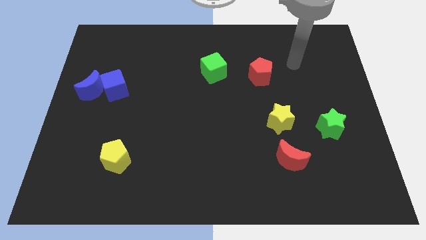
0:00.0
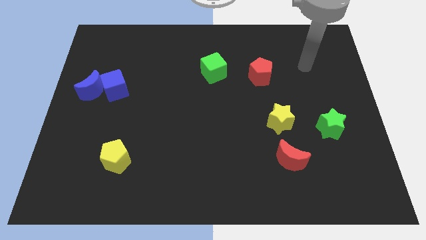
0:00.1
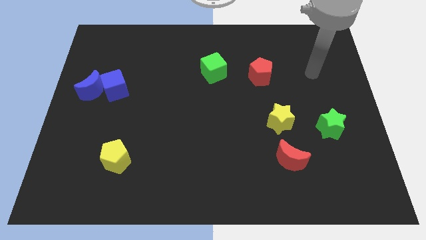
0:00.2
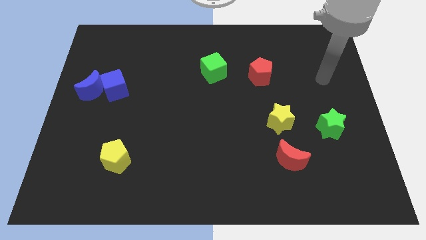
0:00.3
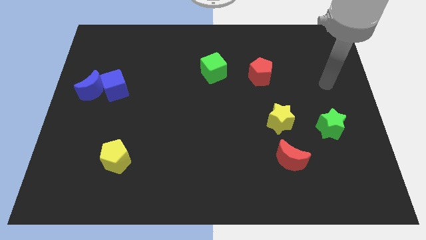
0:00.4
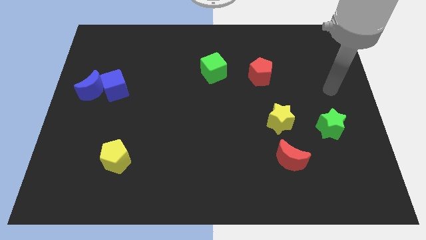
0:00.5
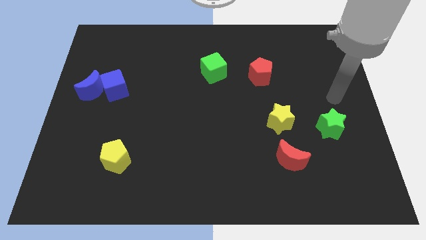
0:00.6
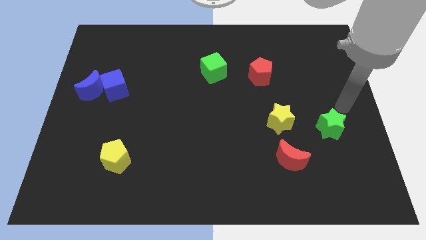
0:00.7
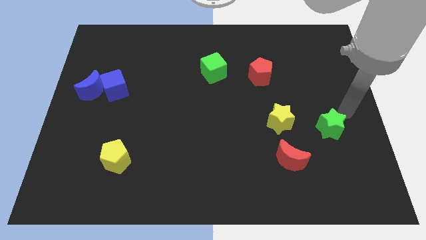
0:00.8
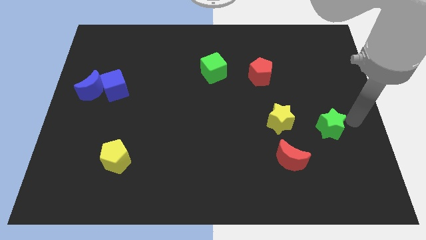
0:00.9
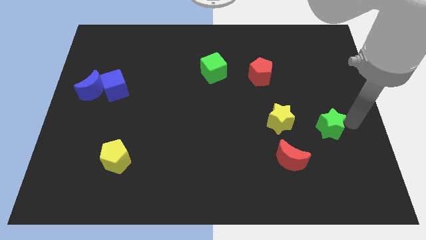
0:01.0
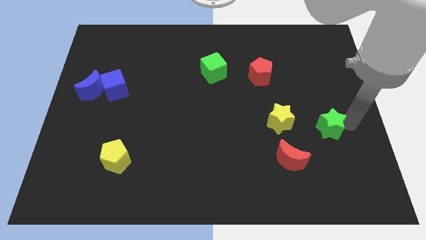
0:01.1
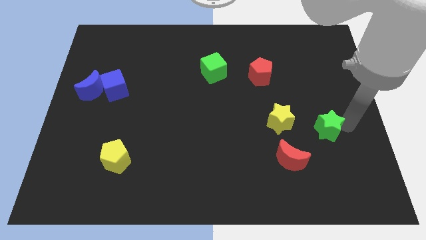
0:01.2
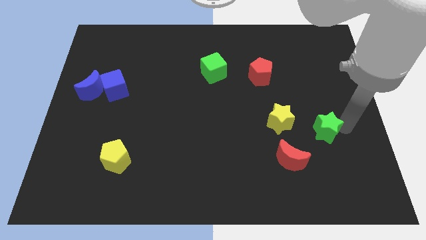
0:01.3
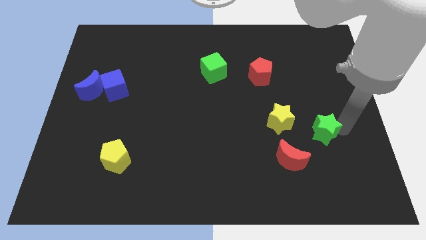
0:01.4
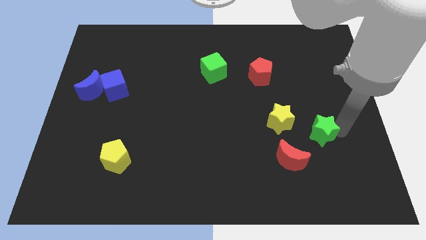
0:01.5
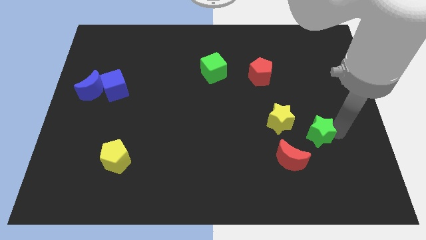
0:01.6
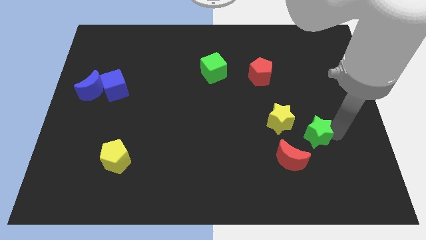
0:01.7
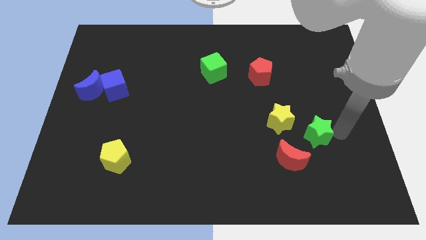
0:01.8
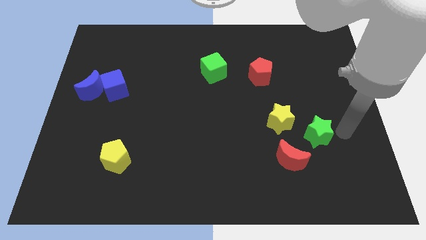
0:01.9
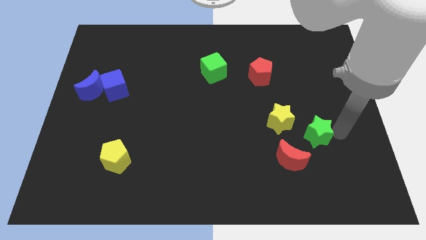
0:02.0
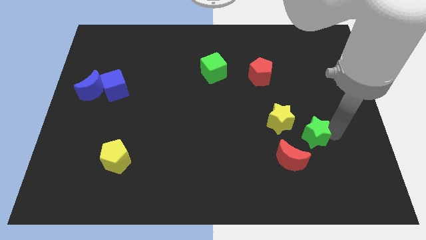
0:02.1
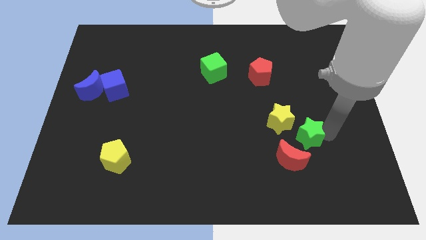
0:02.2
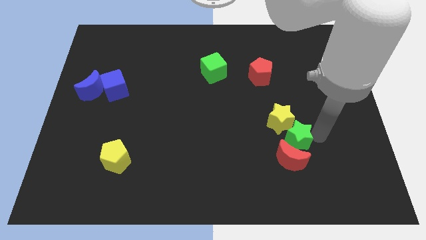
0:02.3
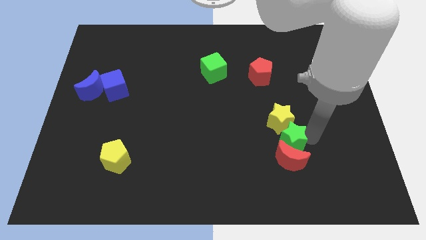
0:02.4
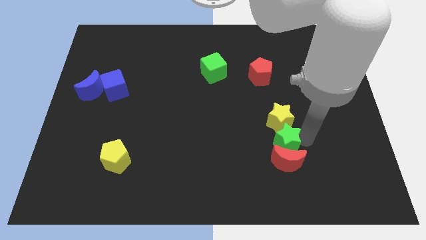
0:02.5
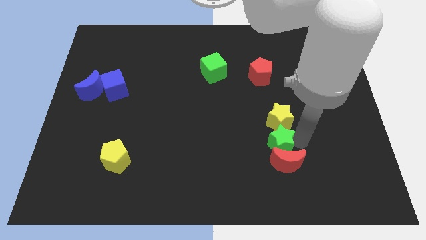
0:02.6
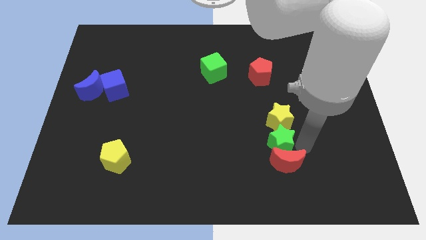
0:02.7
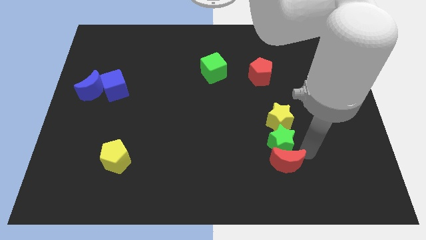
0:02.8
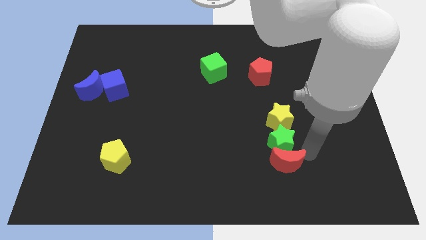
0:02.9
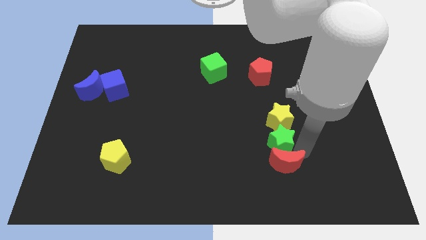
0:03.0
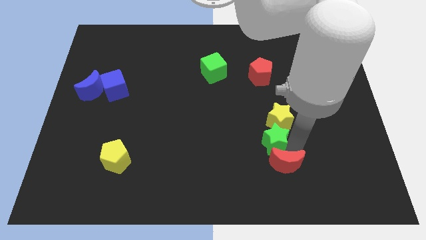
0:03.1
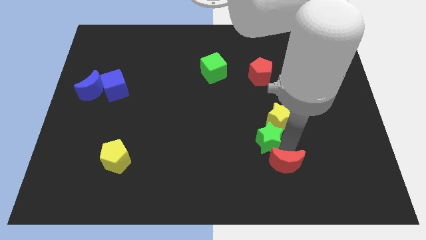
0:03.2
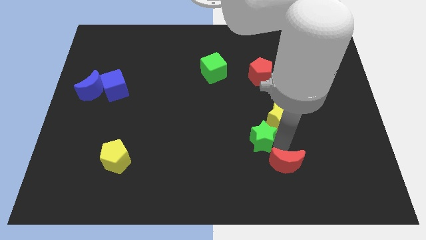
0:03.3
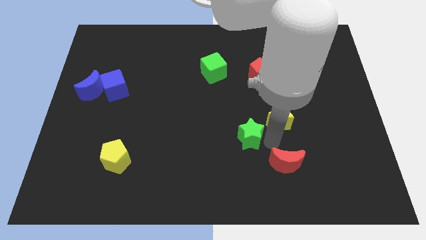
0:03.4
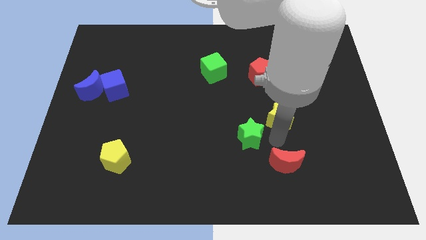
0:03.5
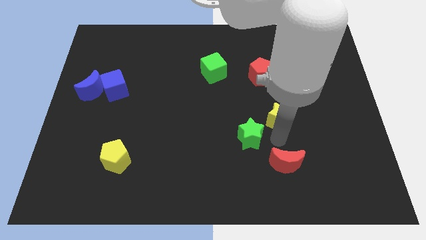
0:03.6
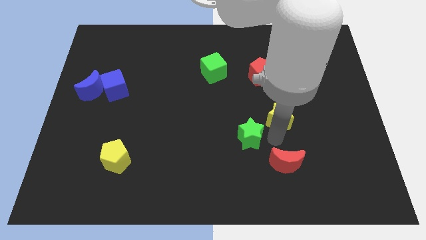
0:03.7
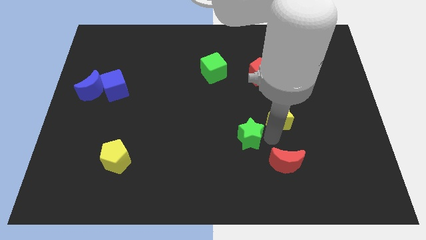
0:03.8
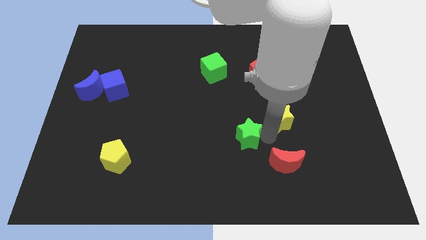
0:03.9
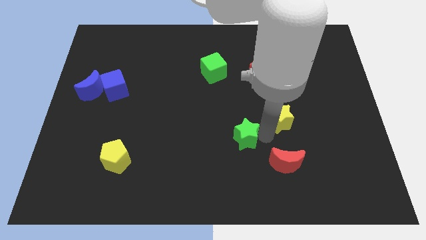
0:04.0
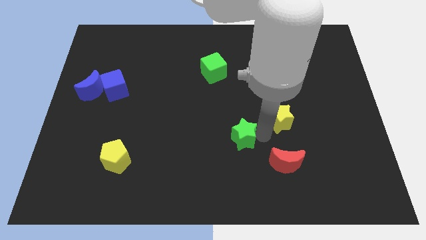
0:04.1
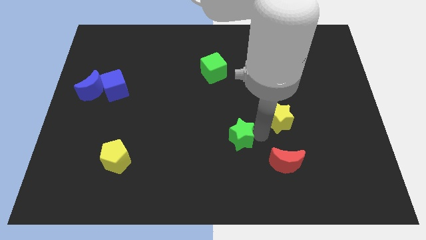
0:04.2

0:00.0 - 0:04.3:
slide the green star to the left

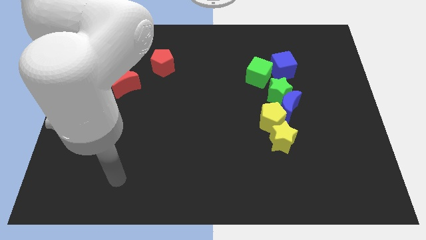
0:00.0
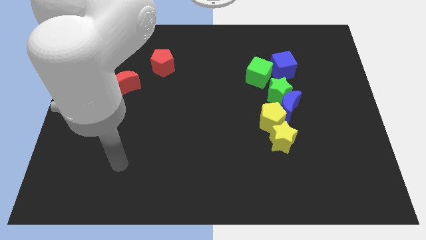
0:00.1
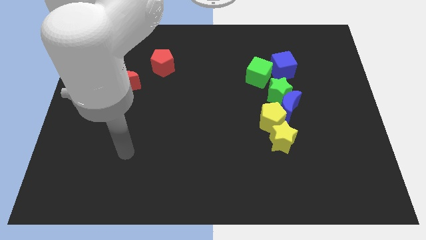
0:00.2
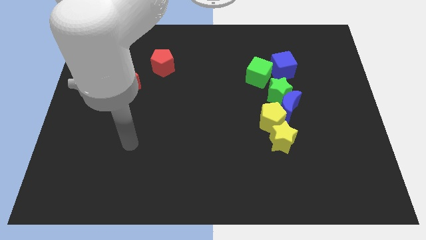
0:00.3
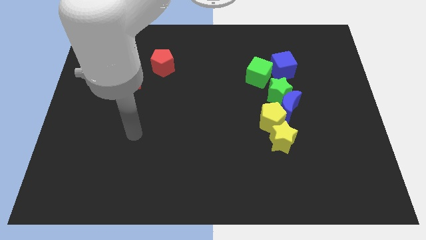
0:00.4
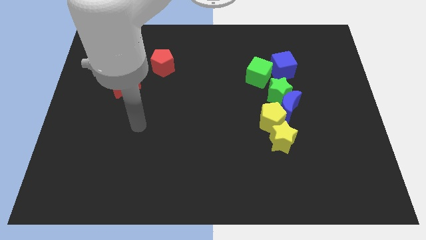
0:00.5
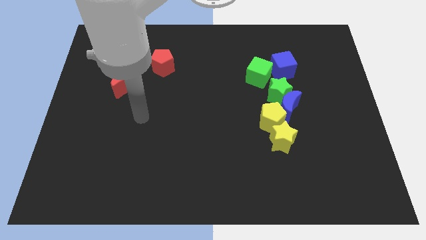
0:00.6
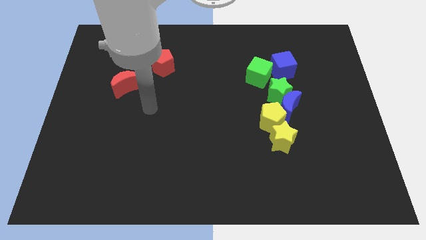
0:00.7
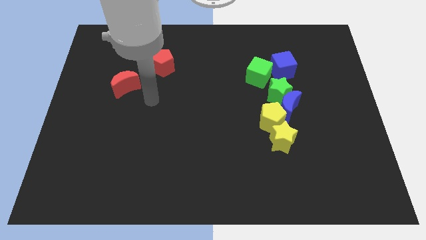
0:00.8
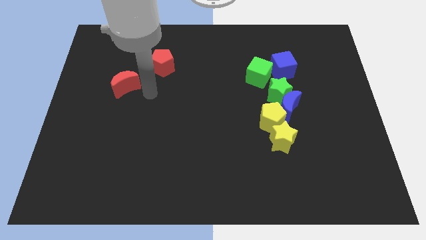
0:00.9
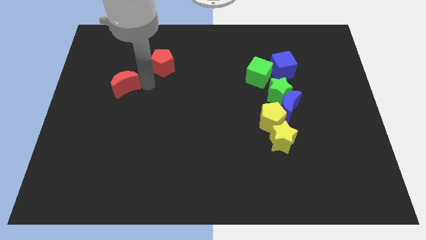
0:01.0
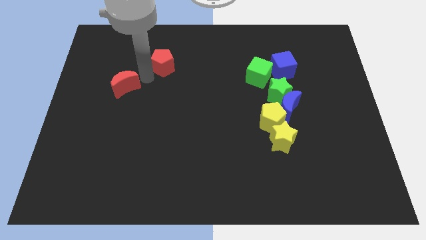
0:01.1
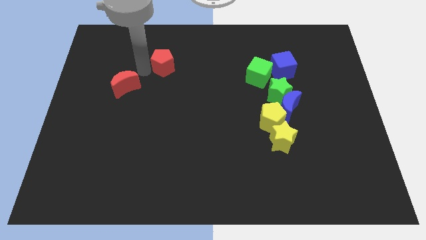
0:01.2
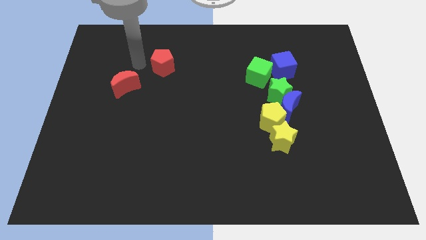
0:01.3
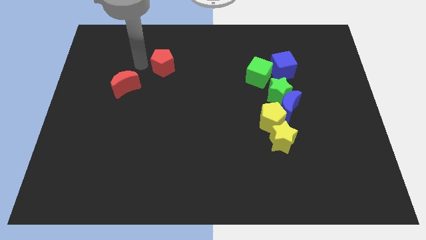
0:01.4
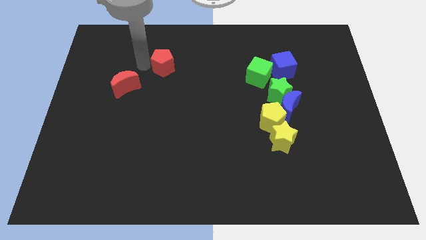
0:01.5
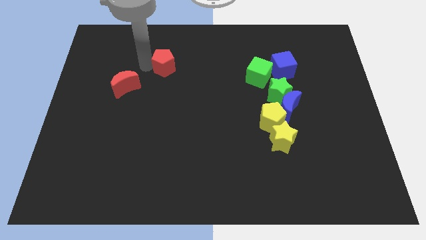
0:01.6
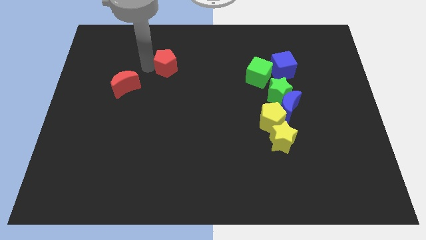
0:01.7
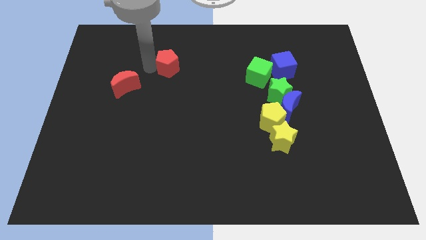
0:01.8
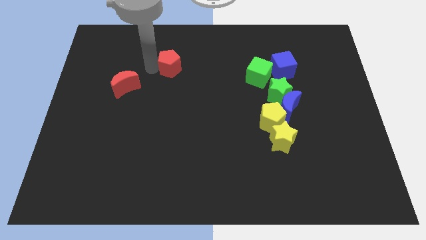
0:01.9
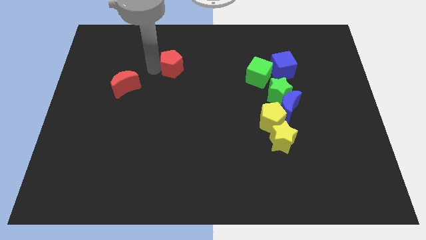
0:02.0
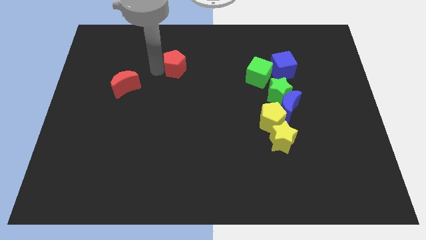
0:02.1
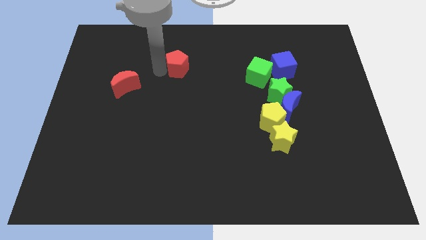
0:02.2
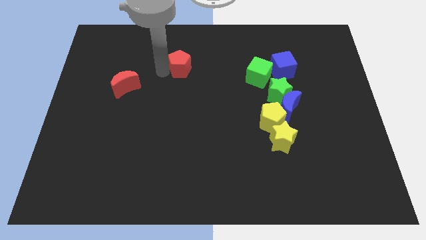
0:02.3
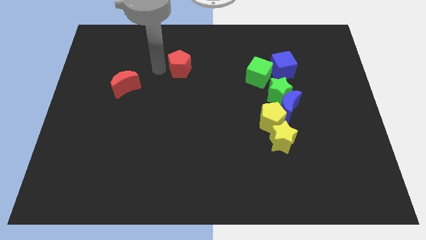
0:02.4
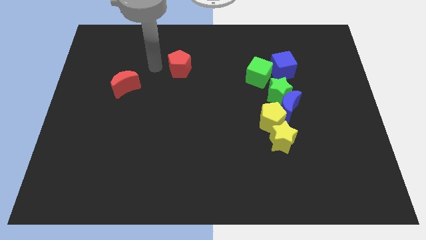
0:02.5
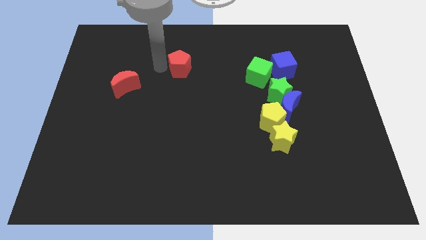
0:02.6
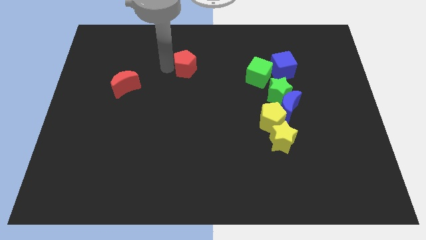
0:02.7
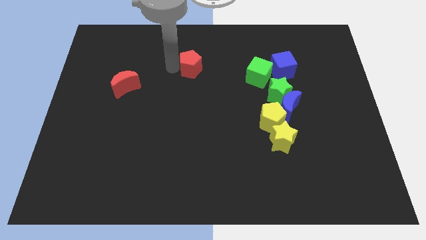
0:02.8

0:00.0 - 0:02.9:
slightly slide the red pentagon to the right

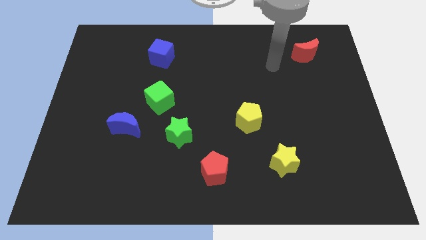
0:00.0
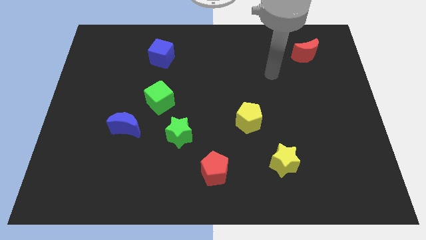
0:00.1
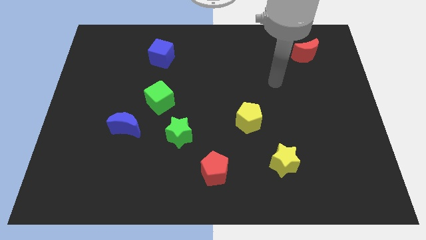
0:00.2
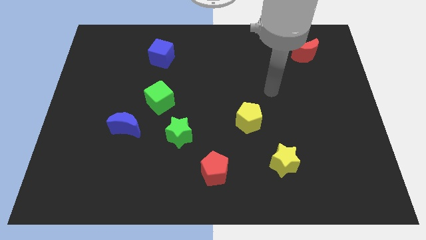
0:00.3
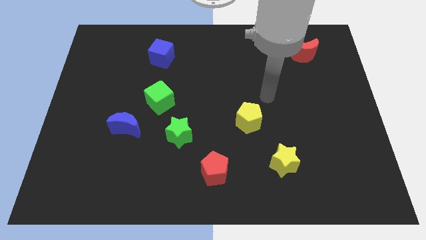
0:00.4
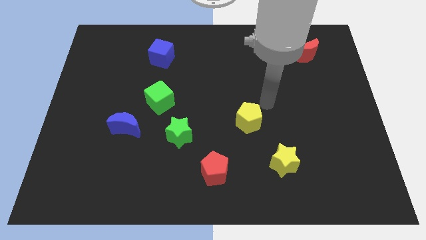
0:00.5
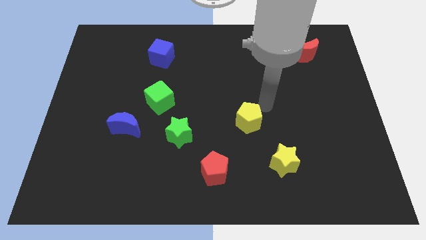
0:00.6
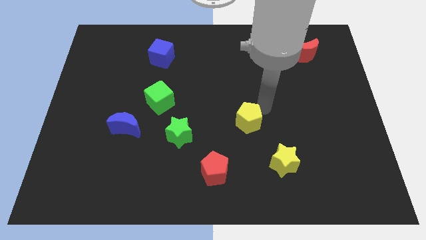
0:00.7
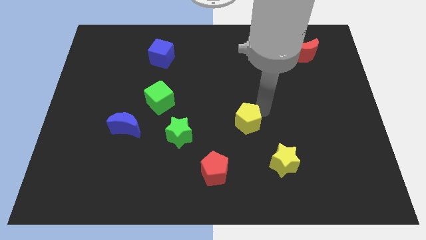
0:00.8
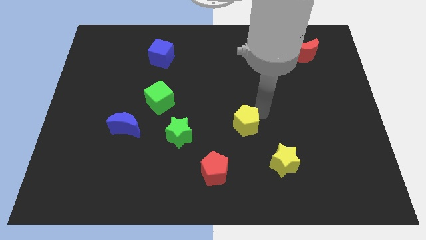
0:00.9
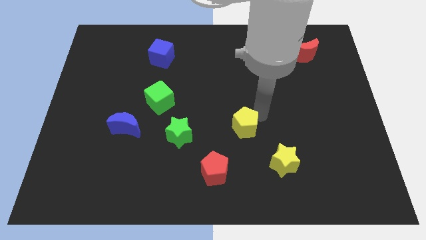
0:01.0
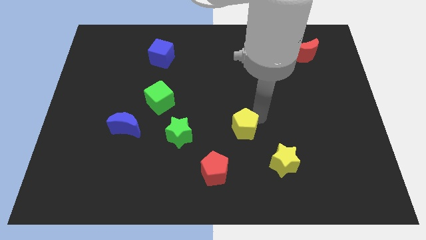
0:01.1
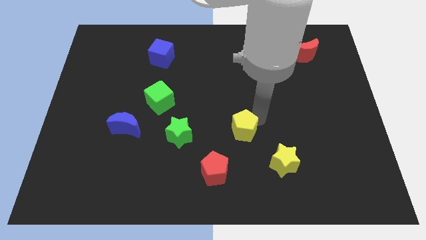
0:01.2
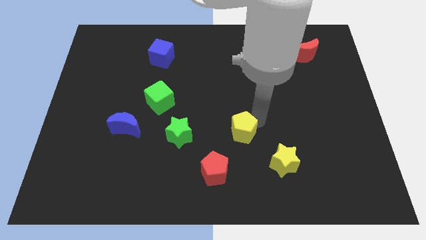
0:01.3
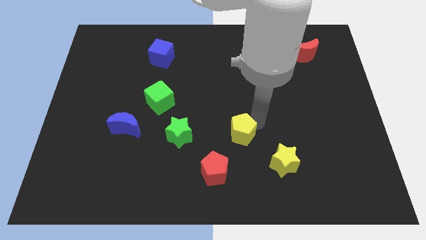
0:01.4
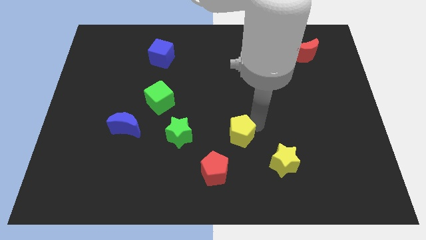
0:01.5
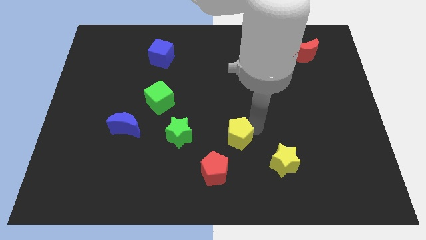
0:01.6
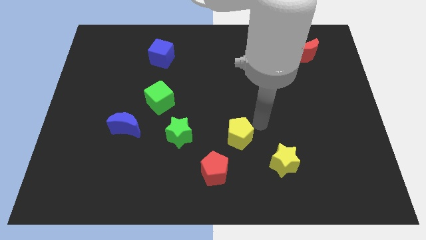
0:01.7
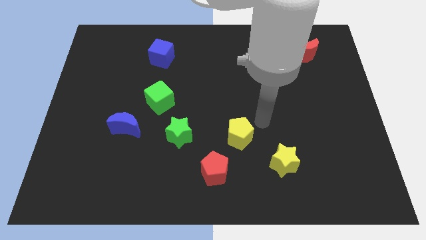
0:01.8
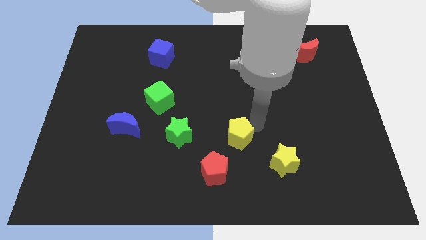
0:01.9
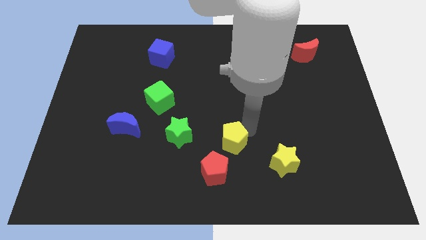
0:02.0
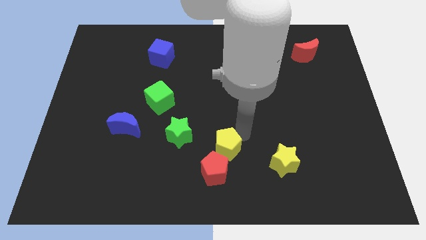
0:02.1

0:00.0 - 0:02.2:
slightly move the yellow pentagon downwards and left
